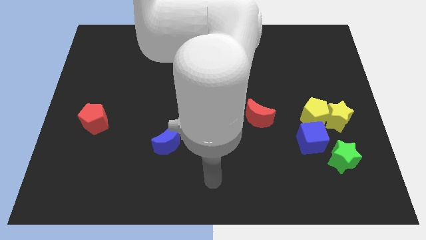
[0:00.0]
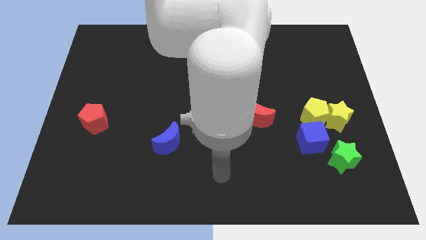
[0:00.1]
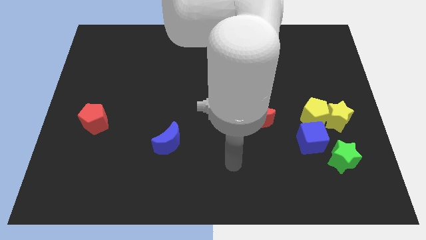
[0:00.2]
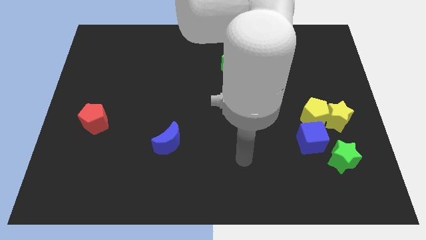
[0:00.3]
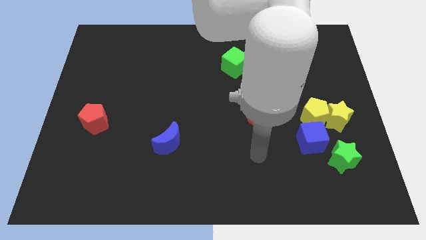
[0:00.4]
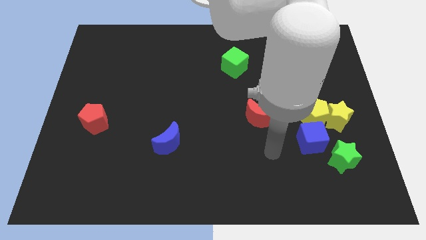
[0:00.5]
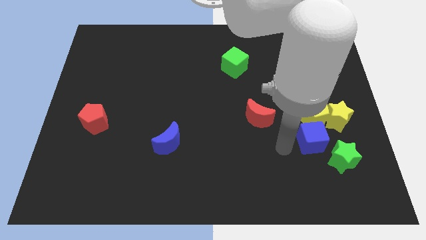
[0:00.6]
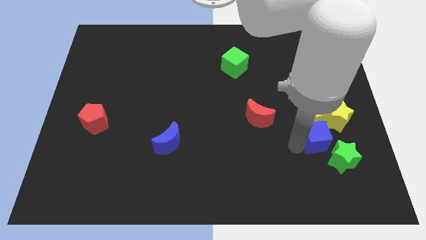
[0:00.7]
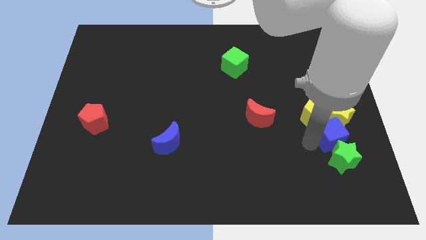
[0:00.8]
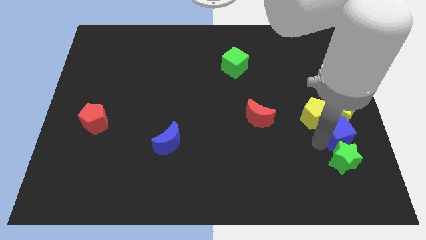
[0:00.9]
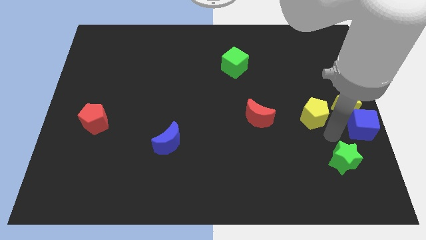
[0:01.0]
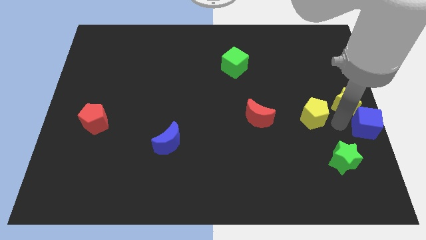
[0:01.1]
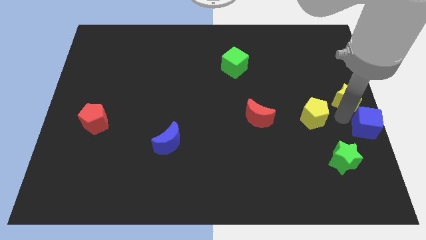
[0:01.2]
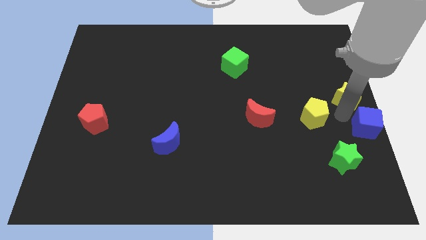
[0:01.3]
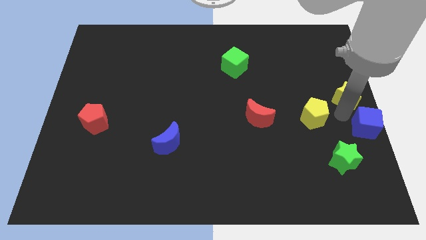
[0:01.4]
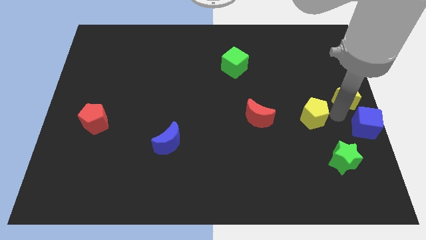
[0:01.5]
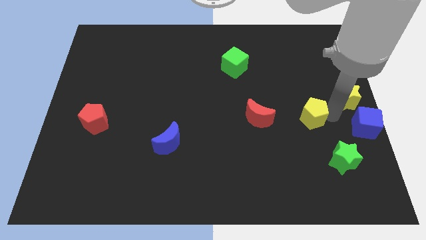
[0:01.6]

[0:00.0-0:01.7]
pull the yellow pentagon apart from the yellow star and blue cube

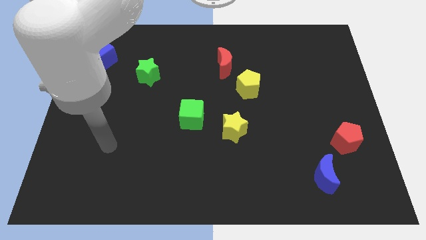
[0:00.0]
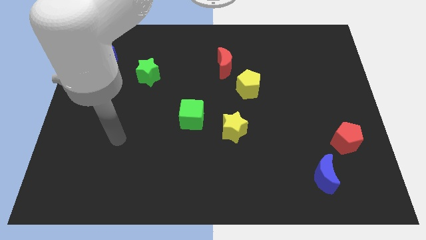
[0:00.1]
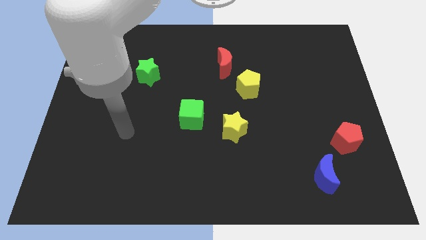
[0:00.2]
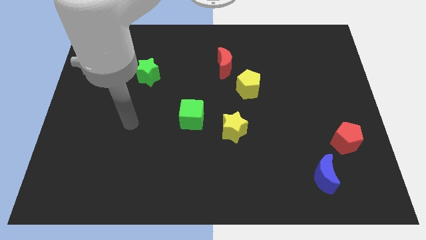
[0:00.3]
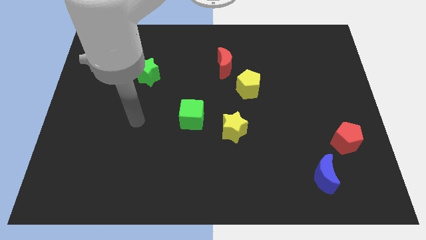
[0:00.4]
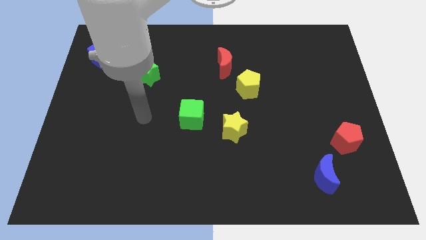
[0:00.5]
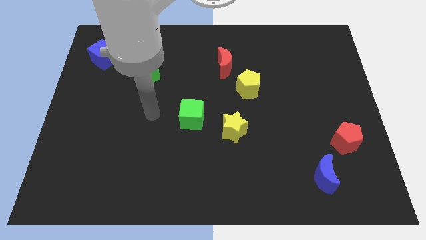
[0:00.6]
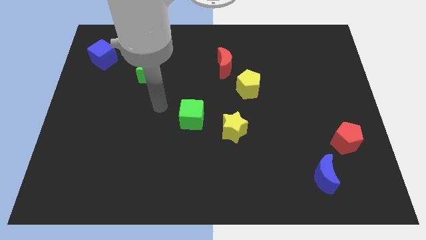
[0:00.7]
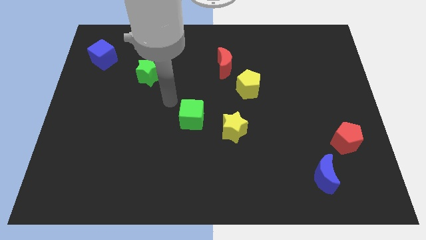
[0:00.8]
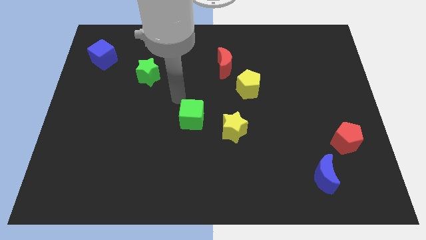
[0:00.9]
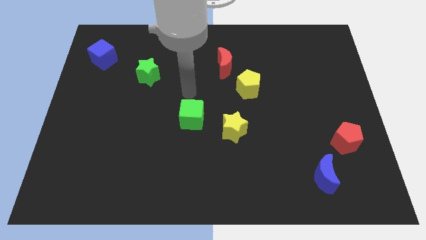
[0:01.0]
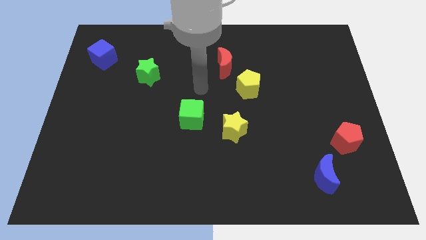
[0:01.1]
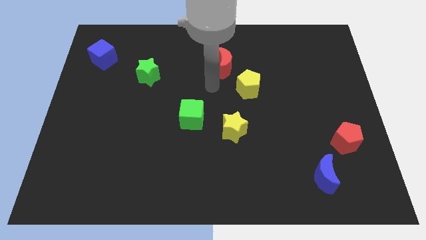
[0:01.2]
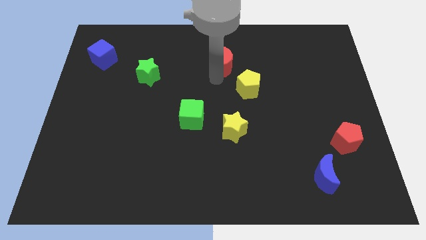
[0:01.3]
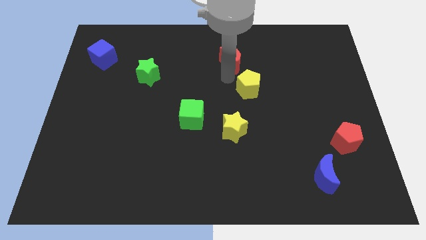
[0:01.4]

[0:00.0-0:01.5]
pull the red moon apart from the yellow pentagon

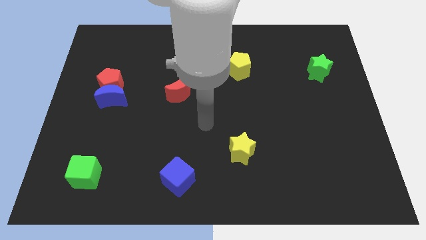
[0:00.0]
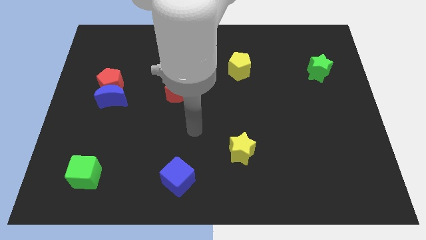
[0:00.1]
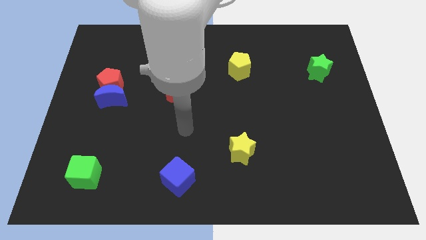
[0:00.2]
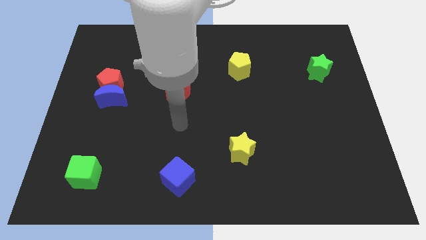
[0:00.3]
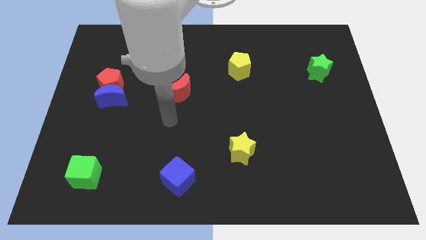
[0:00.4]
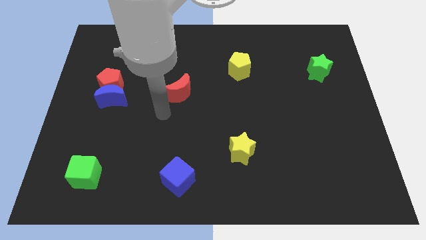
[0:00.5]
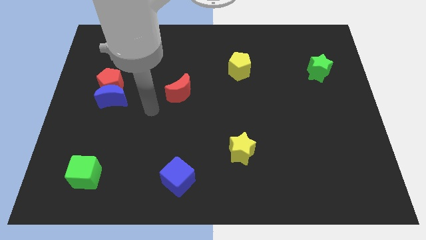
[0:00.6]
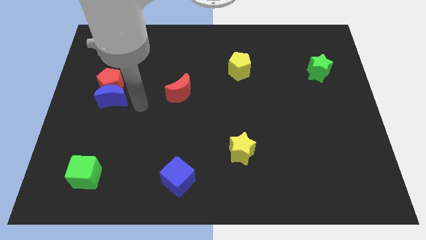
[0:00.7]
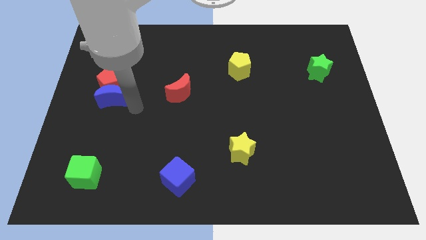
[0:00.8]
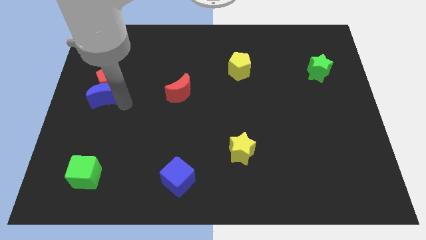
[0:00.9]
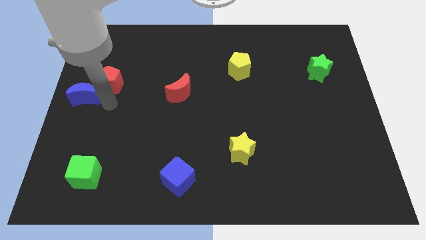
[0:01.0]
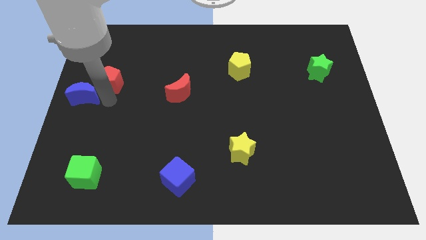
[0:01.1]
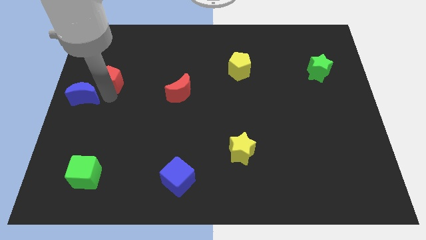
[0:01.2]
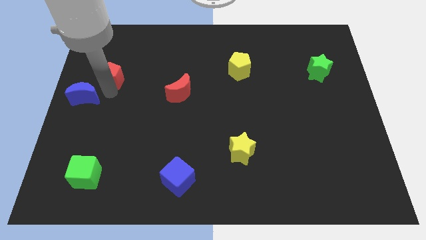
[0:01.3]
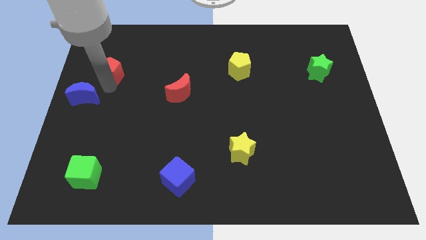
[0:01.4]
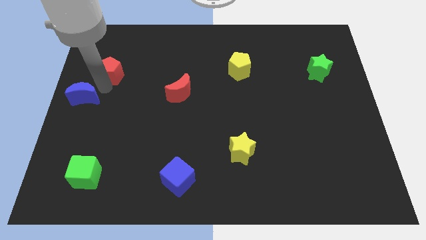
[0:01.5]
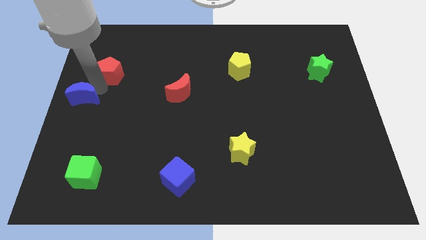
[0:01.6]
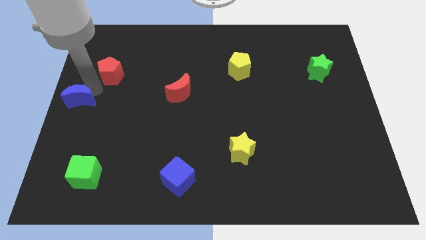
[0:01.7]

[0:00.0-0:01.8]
move the red pentagon away from the blue moon

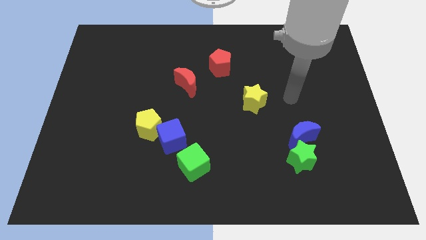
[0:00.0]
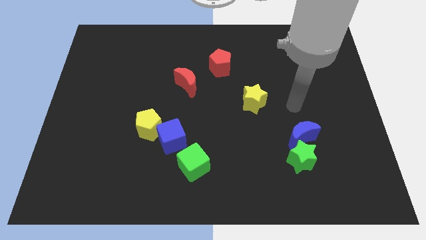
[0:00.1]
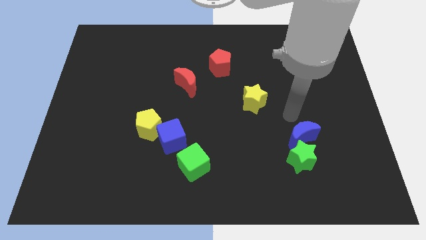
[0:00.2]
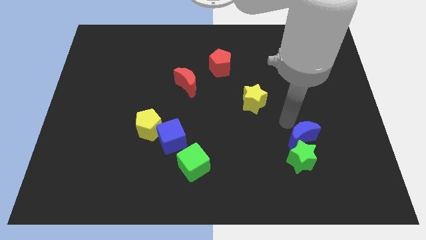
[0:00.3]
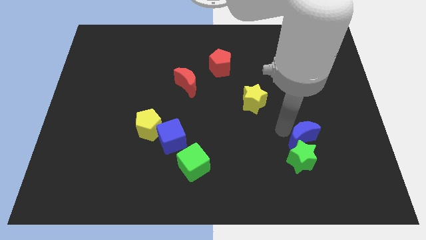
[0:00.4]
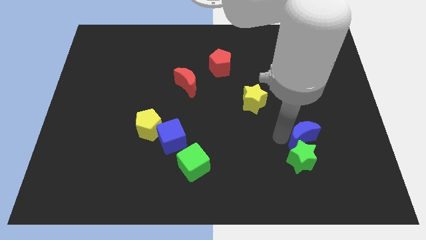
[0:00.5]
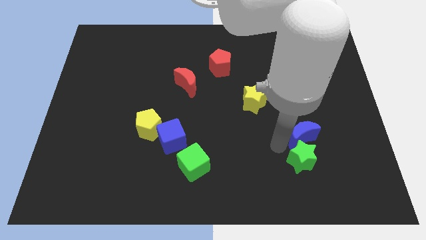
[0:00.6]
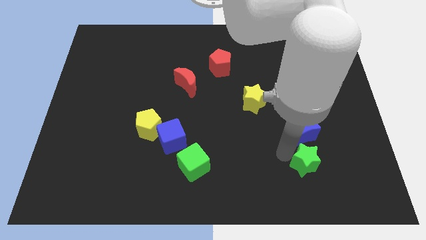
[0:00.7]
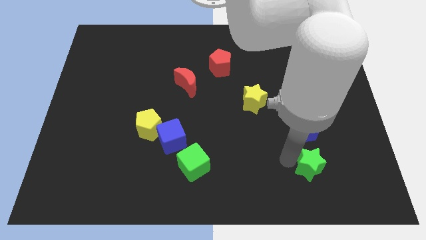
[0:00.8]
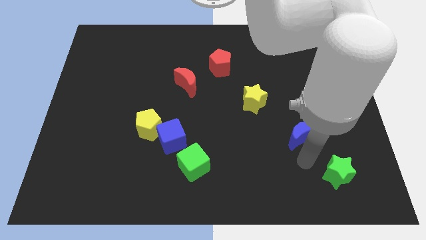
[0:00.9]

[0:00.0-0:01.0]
pull the blue moon apart from the green star

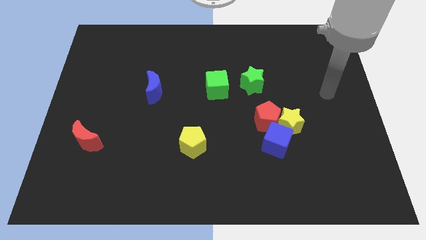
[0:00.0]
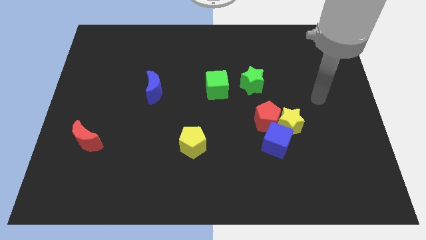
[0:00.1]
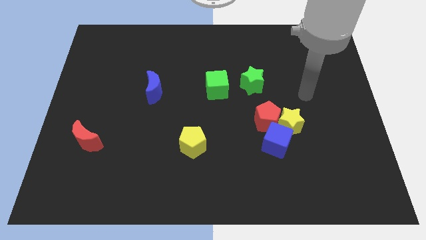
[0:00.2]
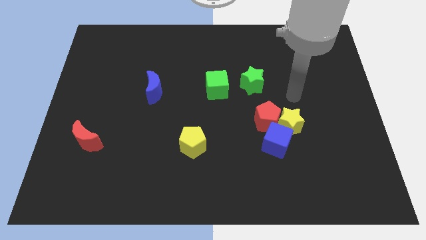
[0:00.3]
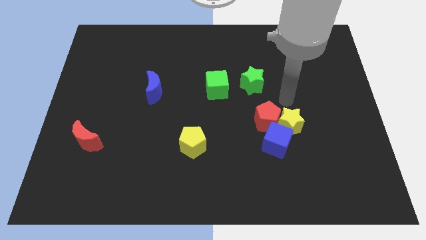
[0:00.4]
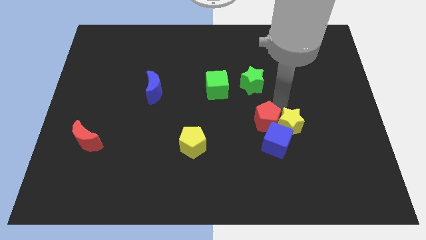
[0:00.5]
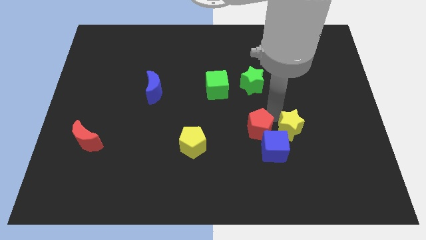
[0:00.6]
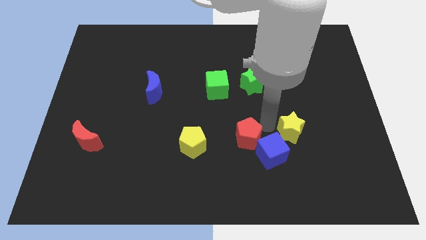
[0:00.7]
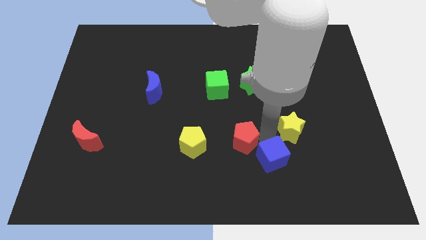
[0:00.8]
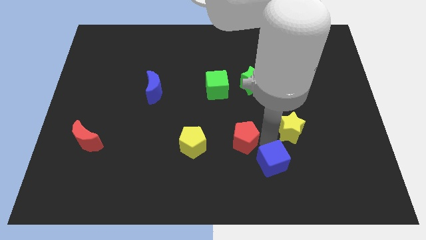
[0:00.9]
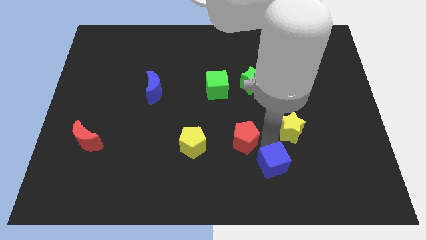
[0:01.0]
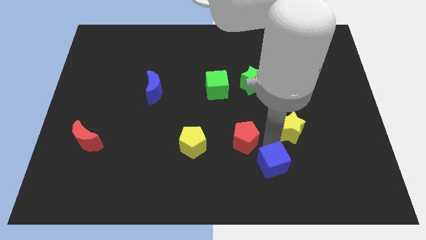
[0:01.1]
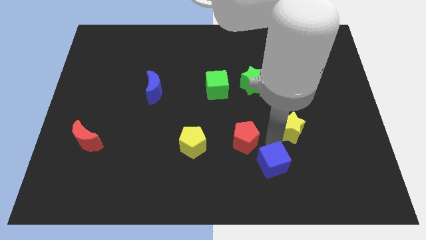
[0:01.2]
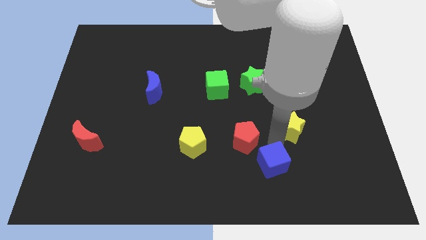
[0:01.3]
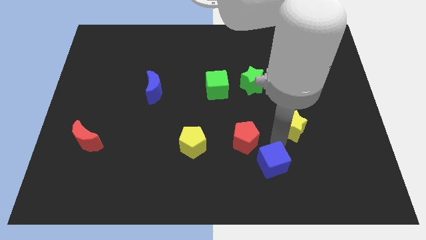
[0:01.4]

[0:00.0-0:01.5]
pull the yellow star apart from the red pentagon and blue cube

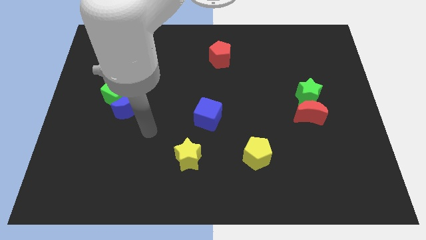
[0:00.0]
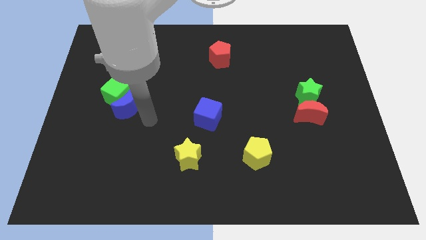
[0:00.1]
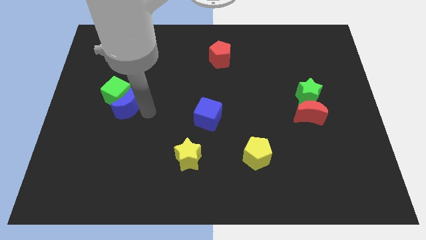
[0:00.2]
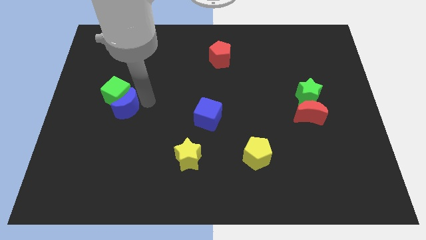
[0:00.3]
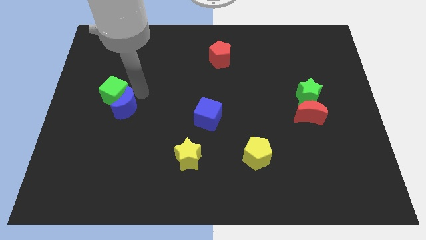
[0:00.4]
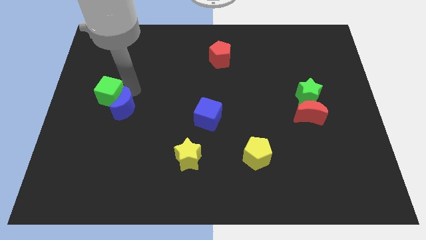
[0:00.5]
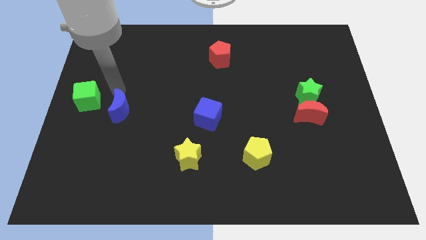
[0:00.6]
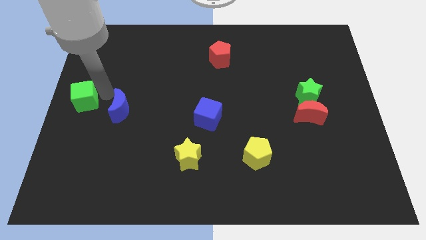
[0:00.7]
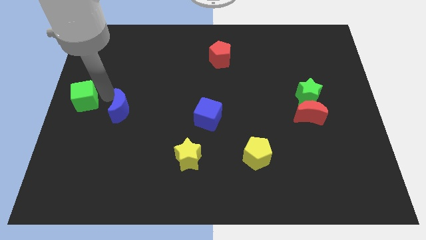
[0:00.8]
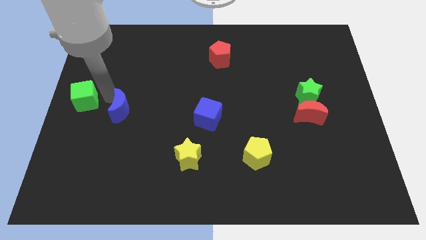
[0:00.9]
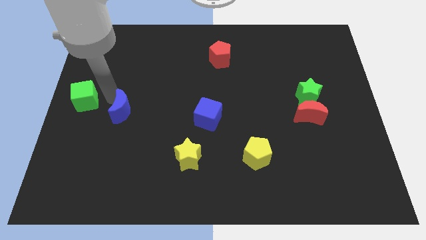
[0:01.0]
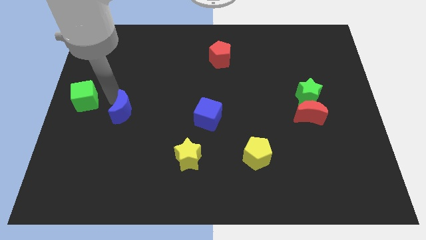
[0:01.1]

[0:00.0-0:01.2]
separate the blue moon from the green cube

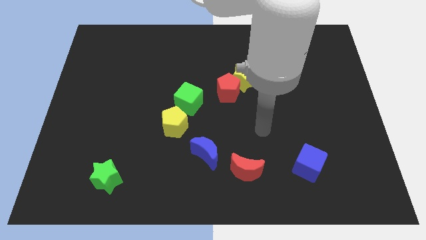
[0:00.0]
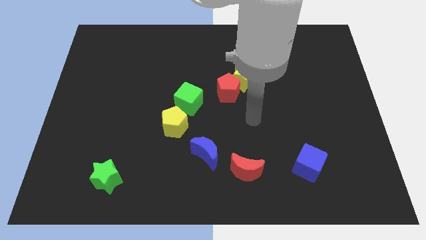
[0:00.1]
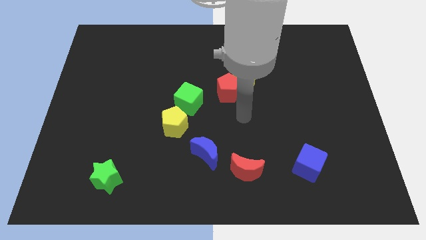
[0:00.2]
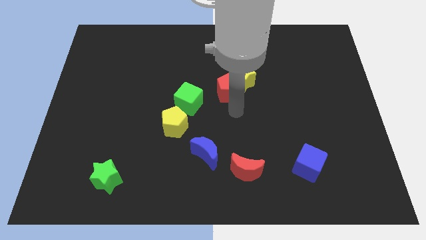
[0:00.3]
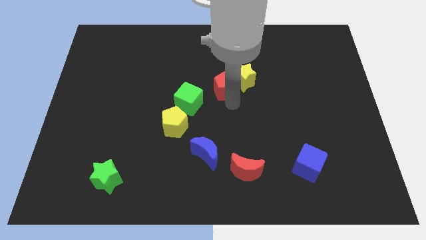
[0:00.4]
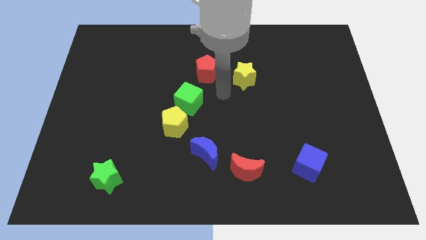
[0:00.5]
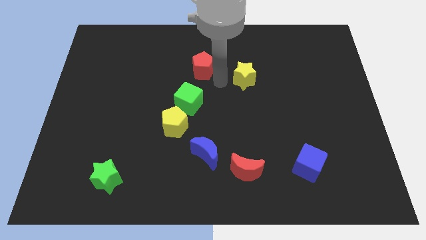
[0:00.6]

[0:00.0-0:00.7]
move the yellow star away from the red pentagon
